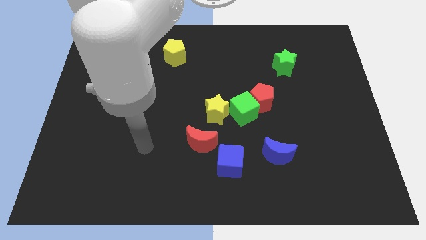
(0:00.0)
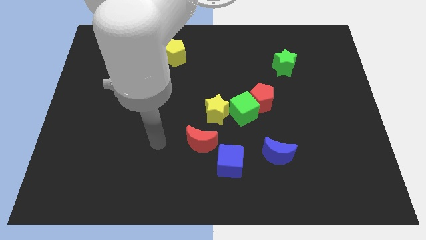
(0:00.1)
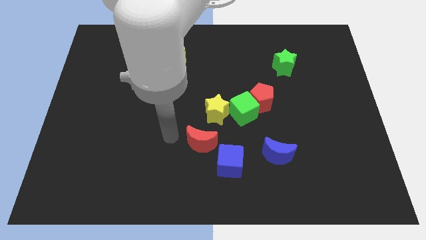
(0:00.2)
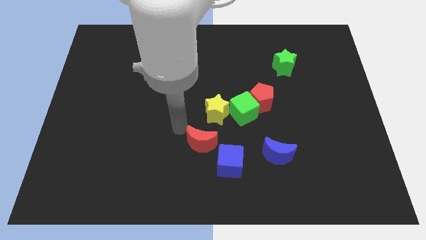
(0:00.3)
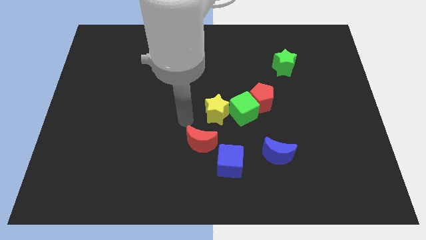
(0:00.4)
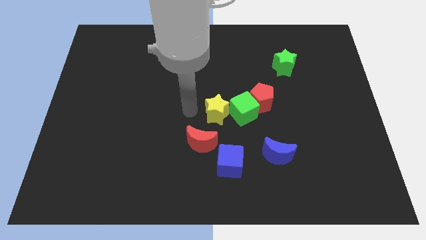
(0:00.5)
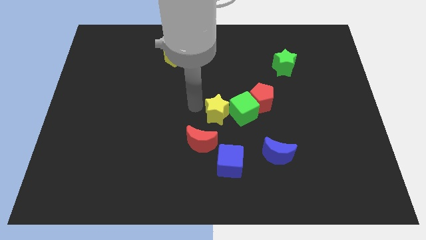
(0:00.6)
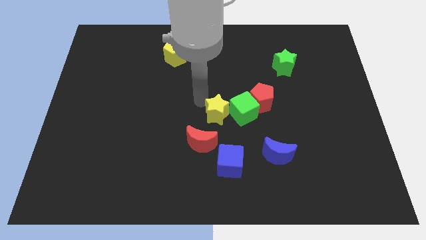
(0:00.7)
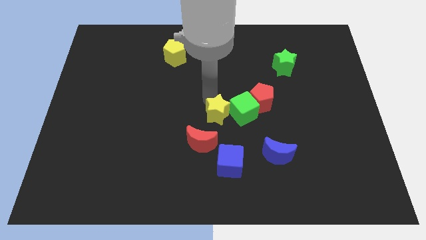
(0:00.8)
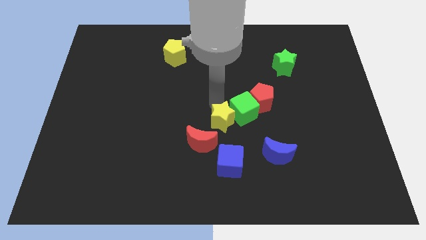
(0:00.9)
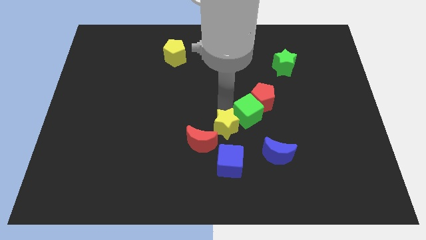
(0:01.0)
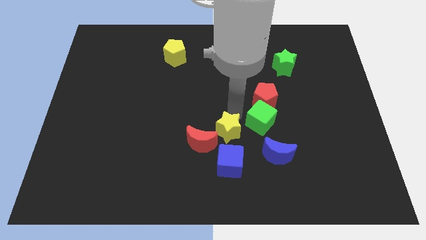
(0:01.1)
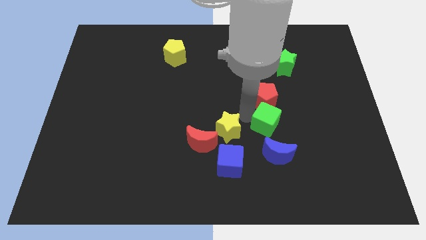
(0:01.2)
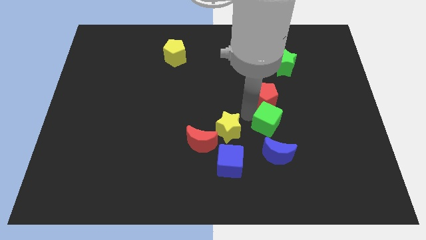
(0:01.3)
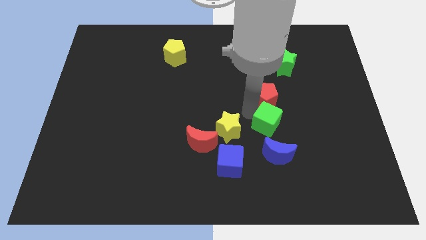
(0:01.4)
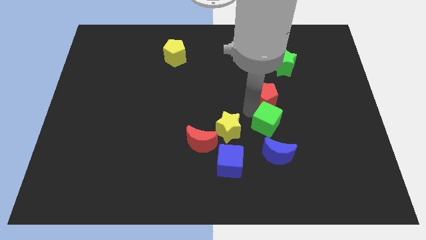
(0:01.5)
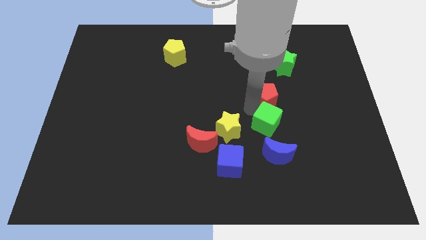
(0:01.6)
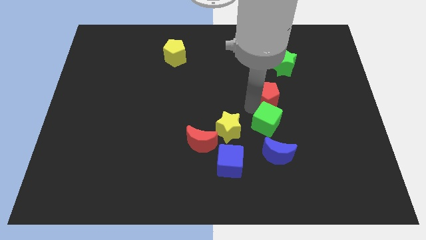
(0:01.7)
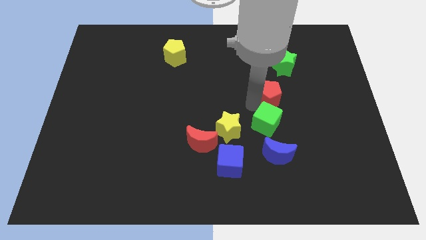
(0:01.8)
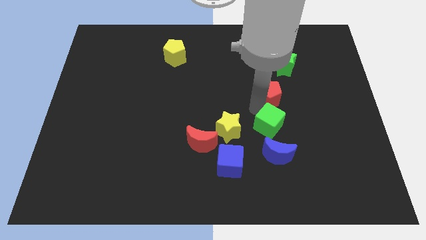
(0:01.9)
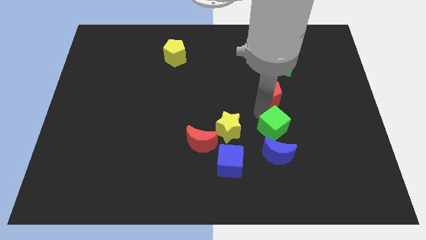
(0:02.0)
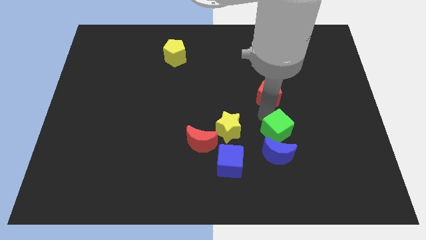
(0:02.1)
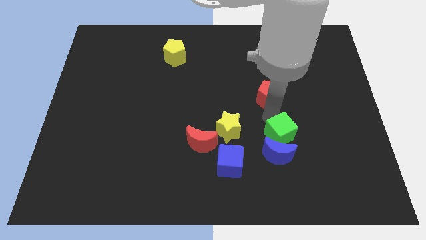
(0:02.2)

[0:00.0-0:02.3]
move the red pentagon away from the green cube

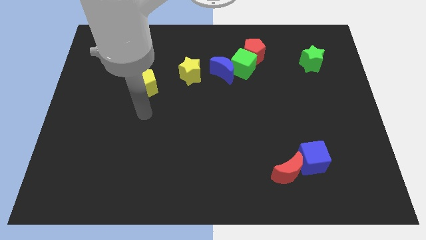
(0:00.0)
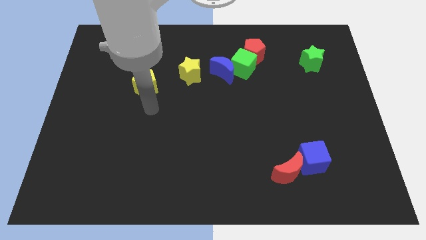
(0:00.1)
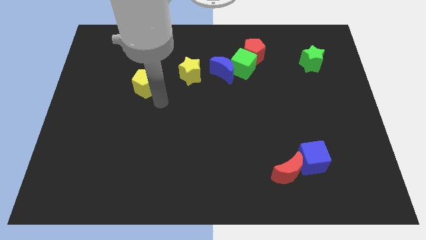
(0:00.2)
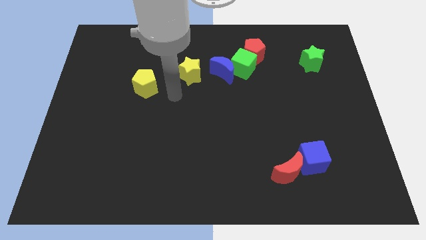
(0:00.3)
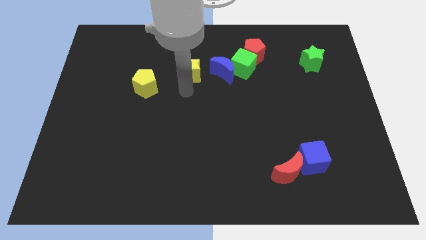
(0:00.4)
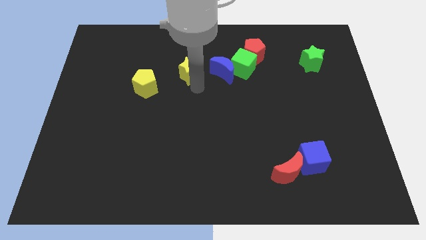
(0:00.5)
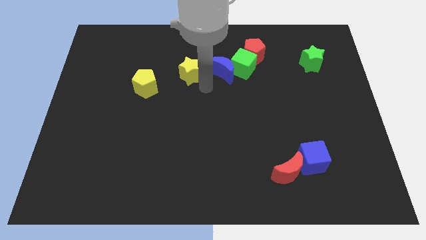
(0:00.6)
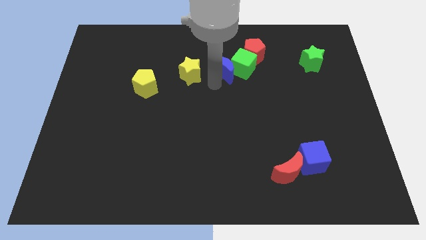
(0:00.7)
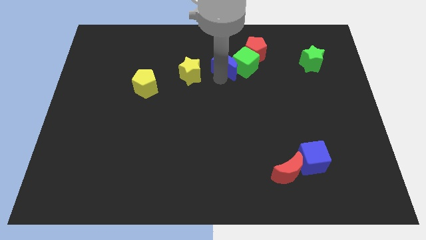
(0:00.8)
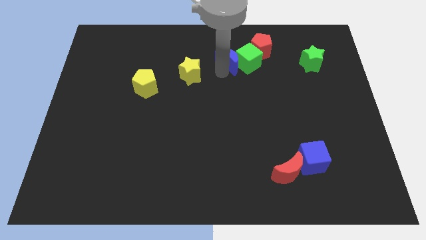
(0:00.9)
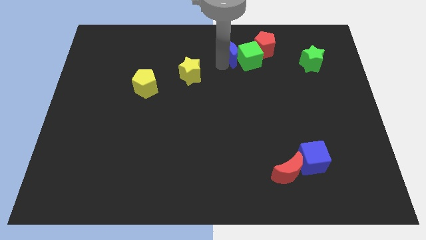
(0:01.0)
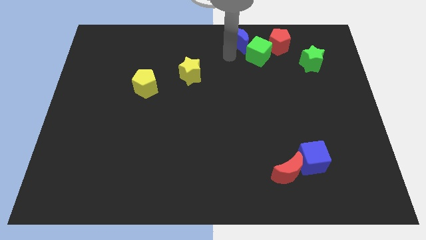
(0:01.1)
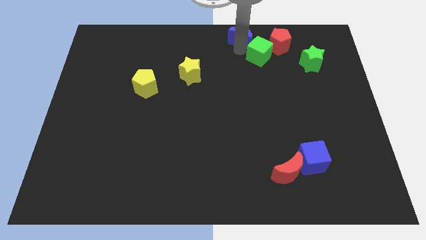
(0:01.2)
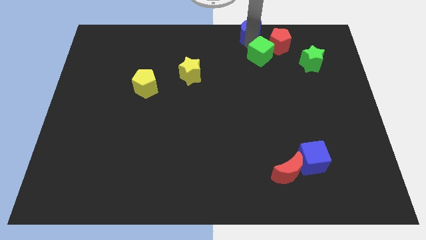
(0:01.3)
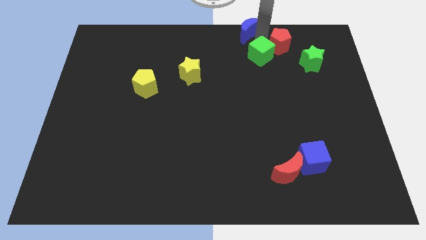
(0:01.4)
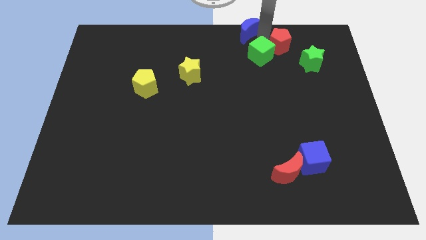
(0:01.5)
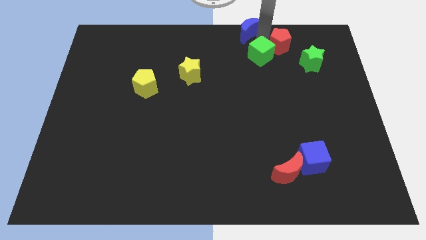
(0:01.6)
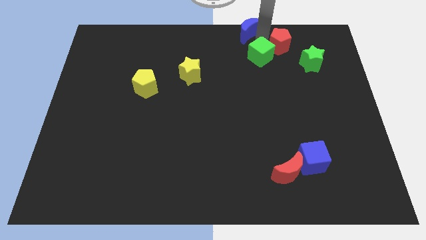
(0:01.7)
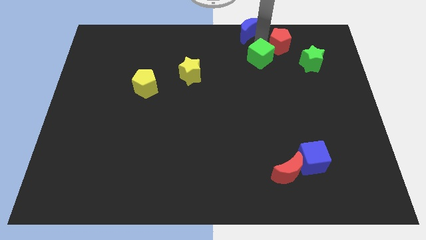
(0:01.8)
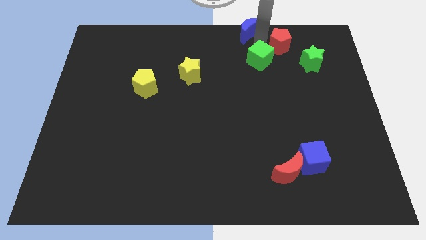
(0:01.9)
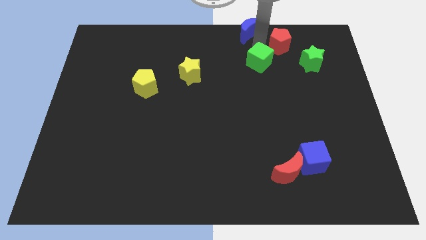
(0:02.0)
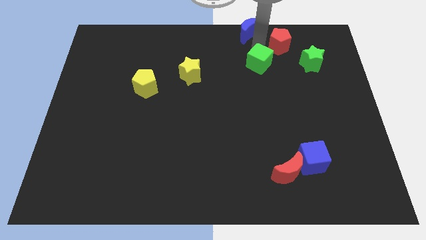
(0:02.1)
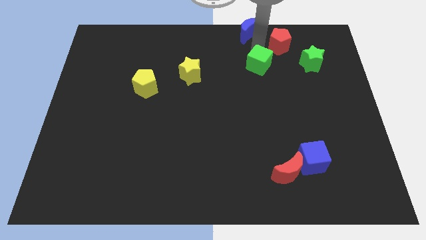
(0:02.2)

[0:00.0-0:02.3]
separate the green cube from the blue moon and red pentagon

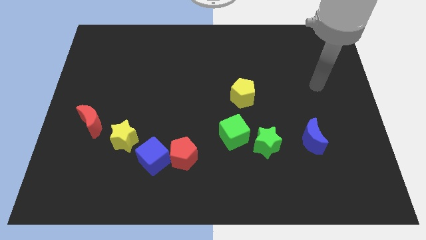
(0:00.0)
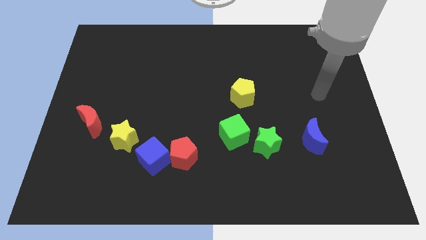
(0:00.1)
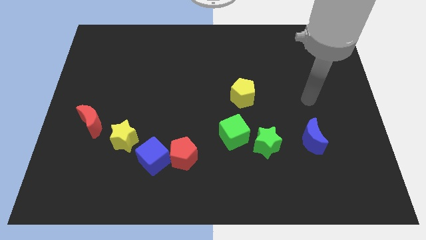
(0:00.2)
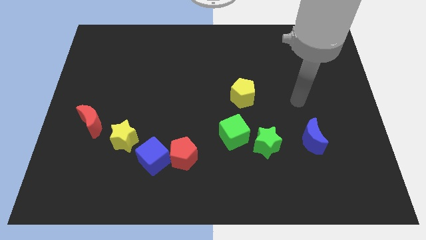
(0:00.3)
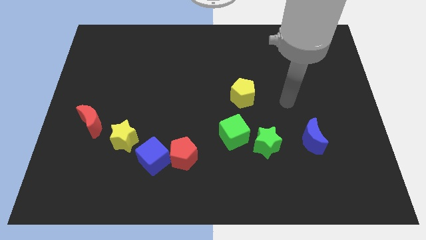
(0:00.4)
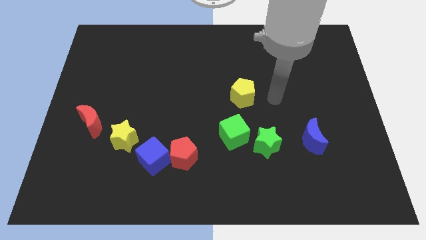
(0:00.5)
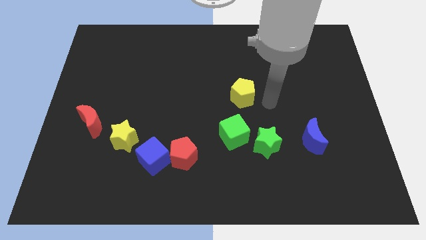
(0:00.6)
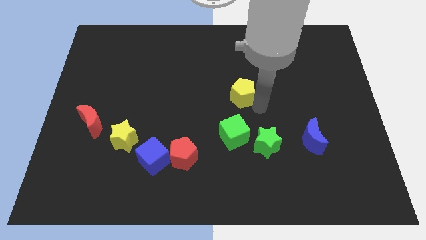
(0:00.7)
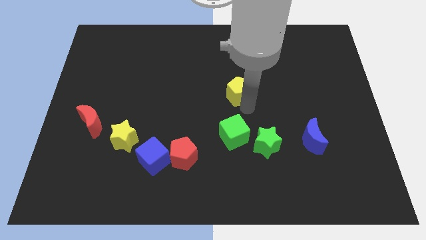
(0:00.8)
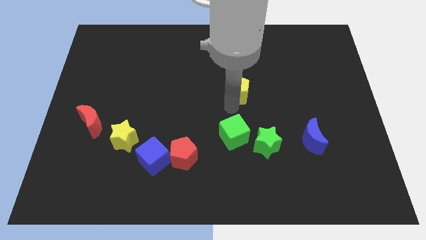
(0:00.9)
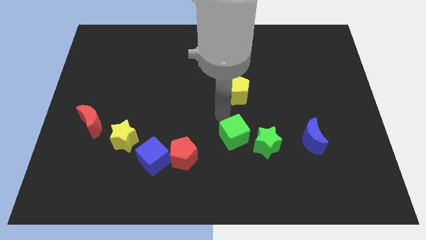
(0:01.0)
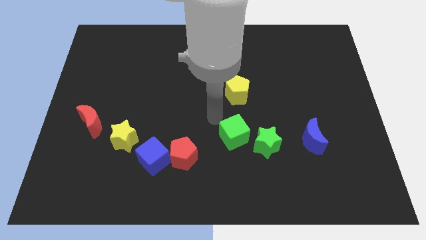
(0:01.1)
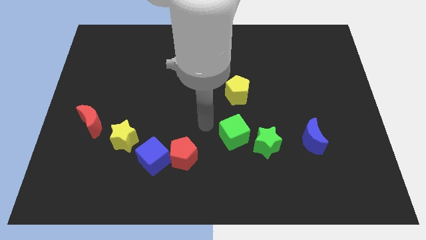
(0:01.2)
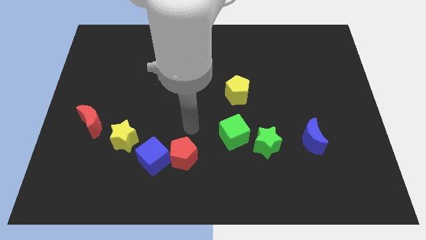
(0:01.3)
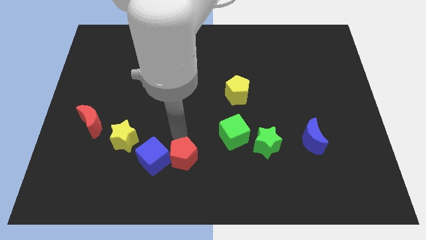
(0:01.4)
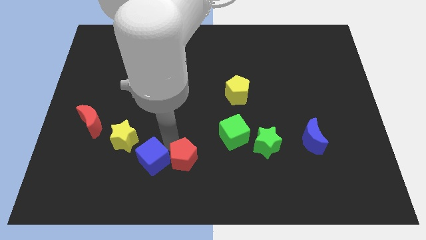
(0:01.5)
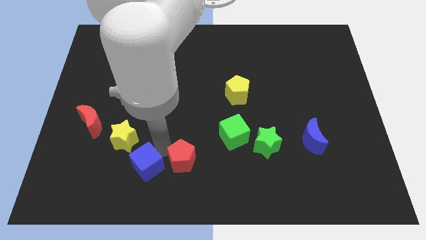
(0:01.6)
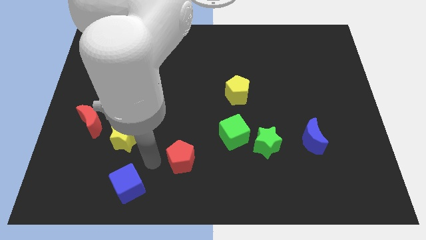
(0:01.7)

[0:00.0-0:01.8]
separate the red pentagon from the blue cube

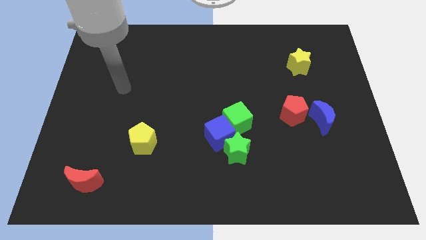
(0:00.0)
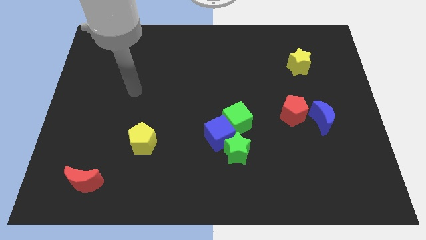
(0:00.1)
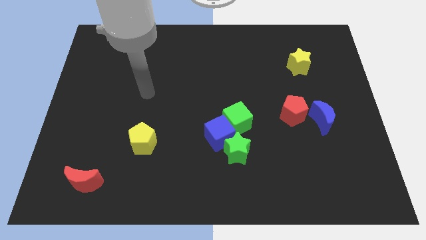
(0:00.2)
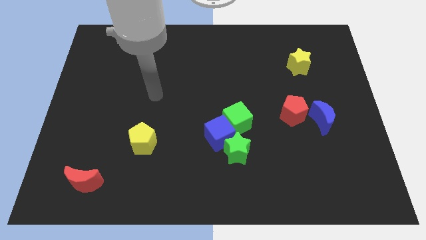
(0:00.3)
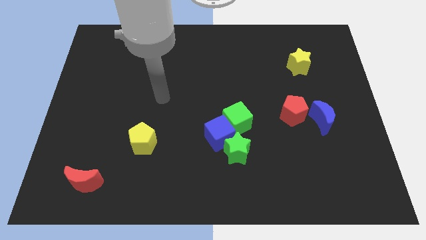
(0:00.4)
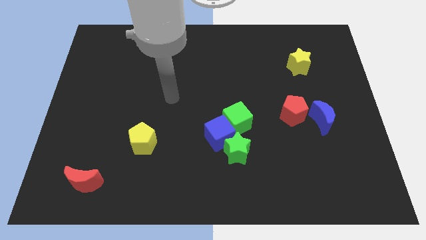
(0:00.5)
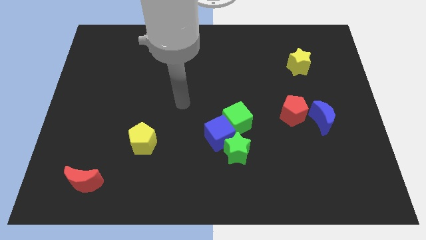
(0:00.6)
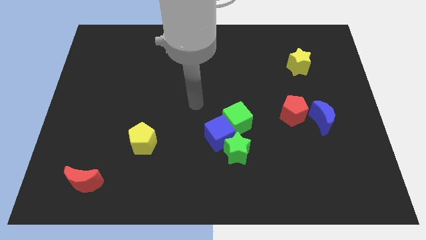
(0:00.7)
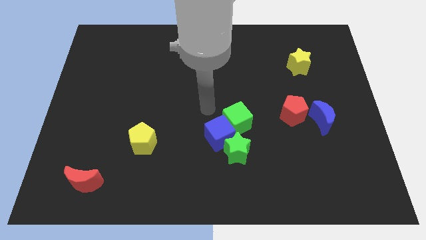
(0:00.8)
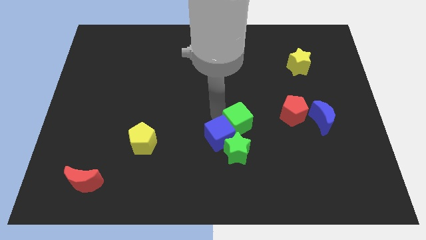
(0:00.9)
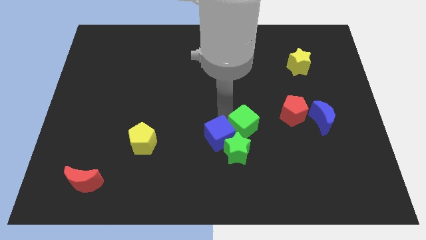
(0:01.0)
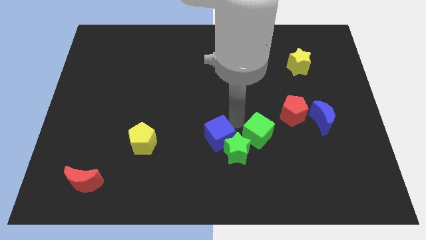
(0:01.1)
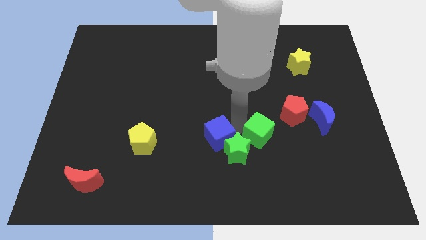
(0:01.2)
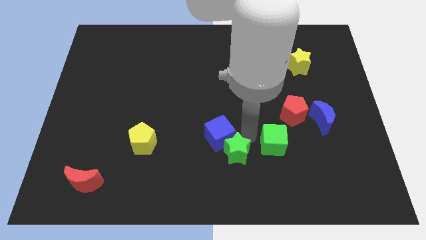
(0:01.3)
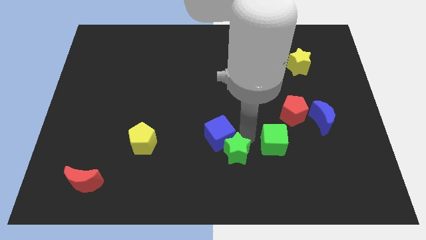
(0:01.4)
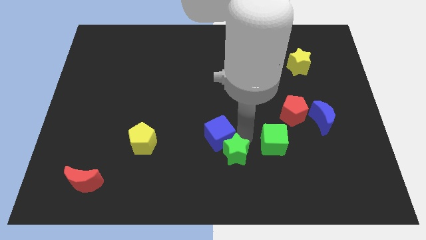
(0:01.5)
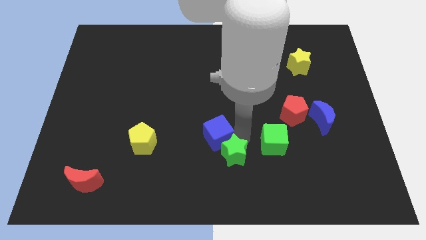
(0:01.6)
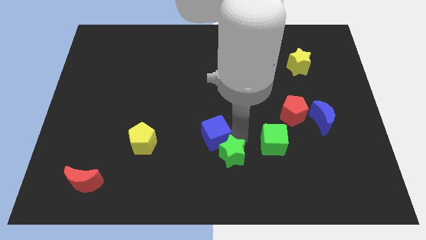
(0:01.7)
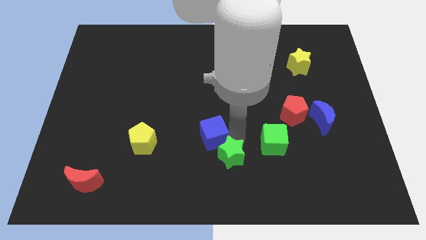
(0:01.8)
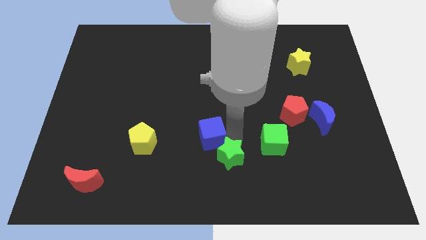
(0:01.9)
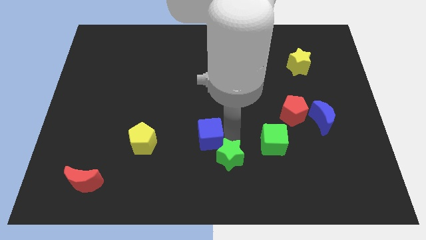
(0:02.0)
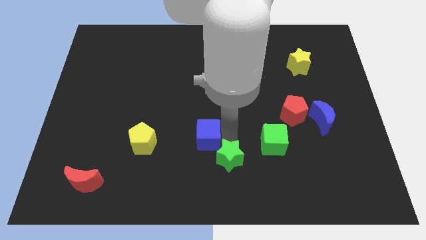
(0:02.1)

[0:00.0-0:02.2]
separate the blue cube from the green cube and green star

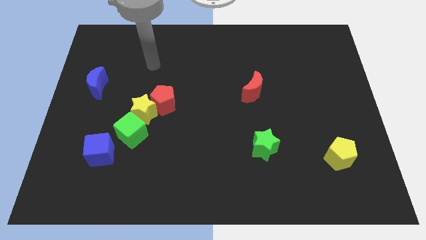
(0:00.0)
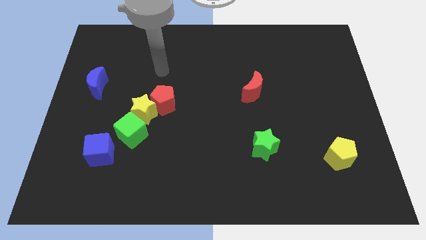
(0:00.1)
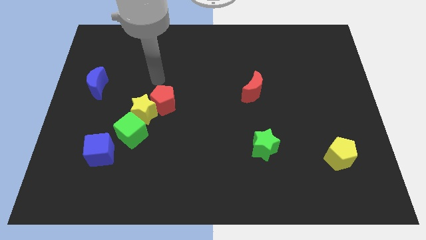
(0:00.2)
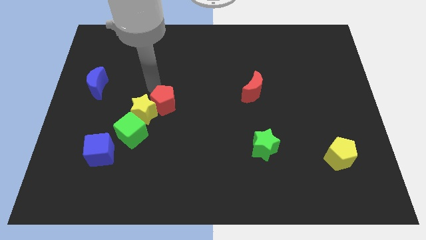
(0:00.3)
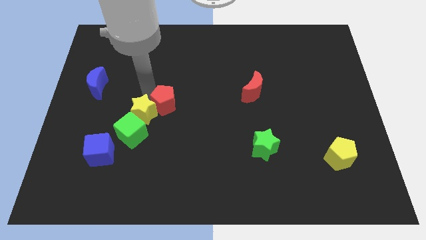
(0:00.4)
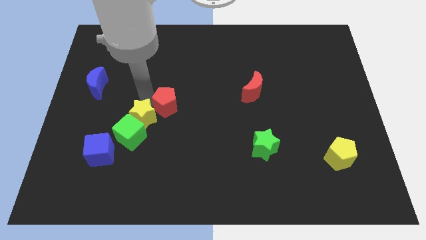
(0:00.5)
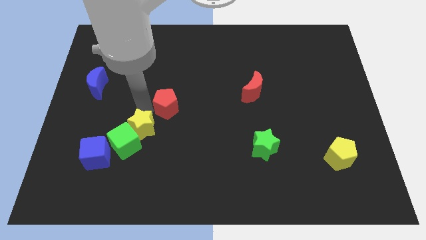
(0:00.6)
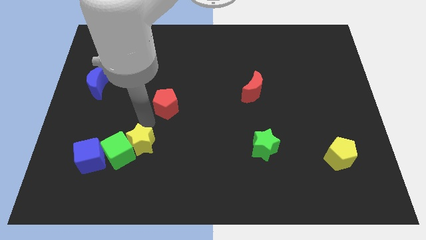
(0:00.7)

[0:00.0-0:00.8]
separate the red pentagon from the yellow star
